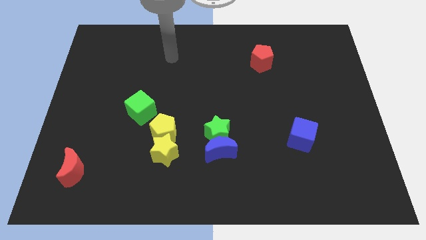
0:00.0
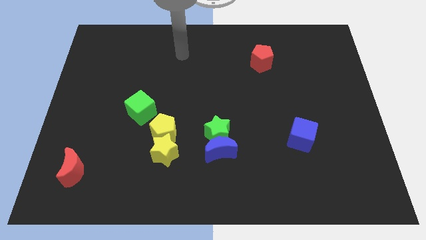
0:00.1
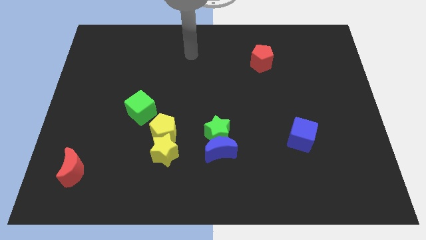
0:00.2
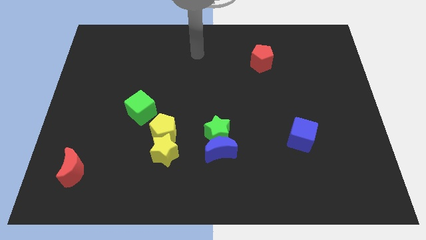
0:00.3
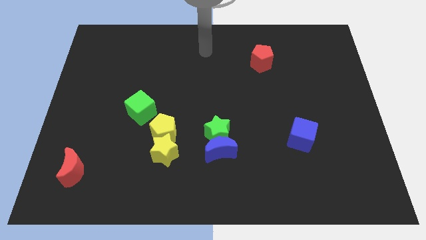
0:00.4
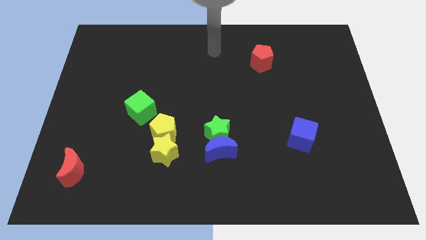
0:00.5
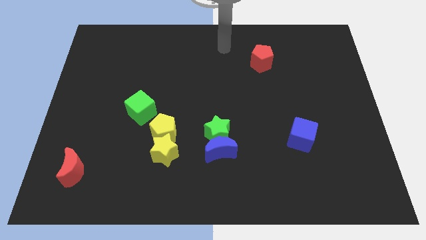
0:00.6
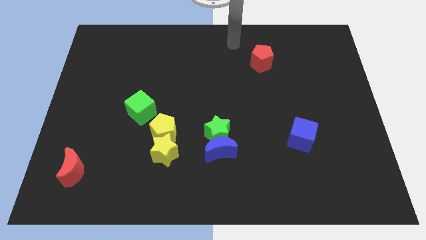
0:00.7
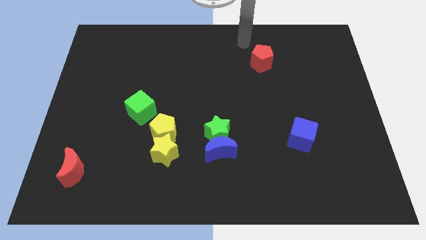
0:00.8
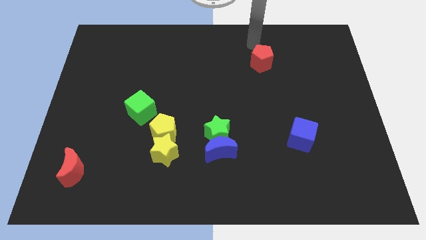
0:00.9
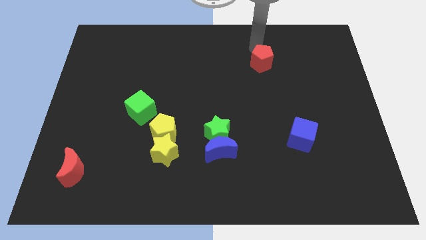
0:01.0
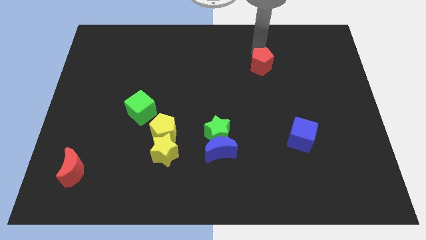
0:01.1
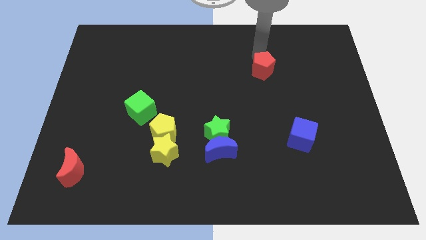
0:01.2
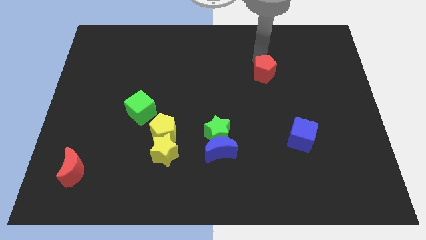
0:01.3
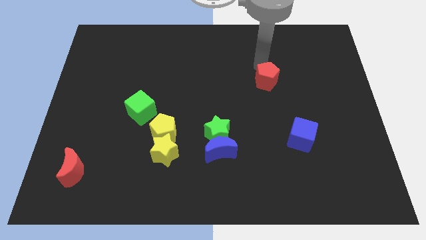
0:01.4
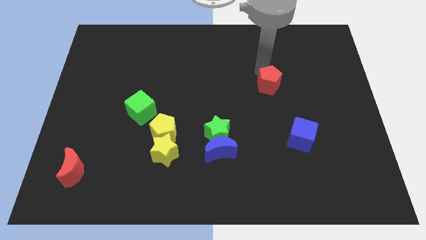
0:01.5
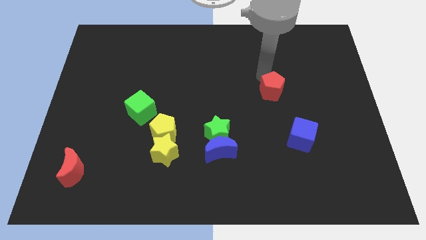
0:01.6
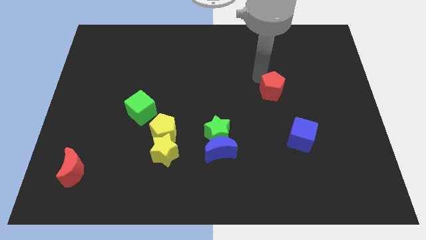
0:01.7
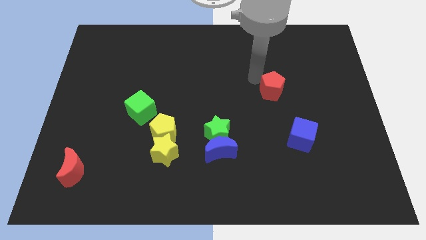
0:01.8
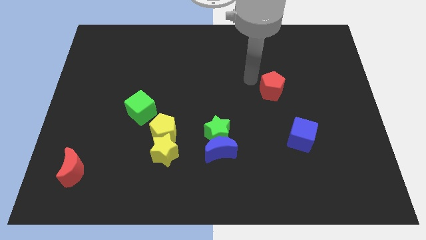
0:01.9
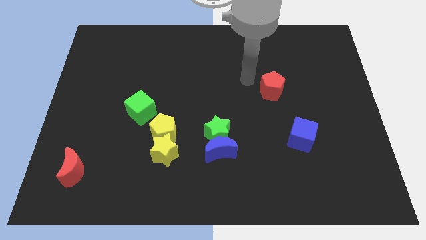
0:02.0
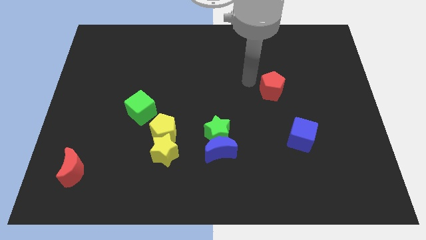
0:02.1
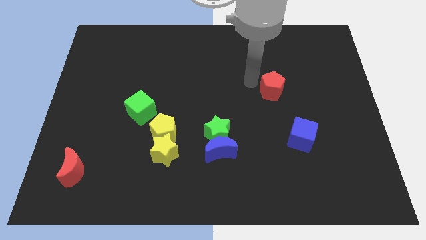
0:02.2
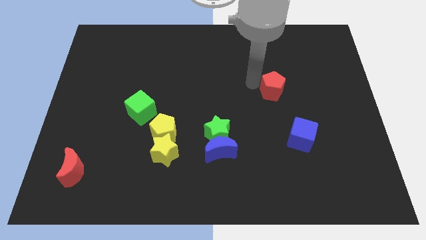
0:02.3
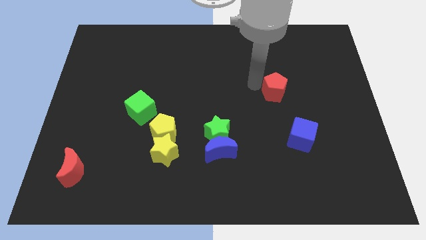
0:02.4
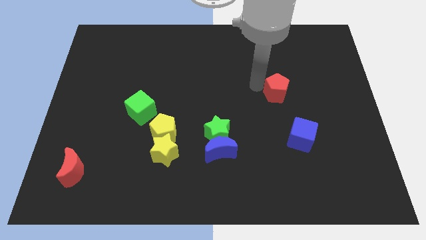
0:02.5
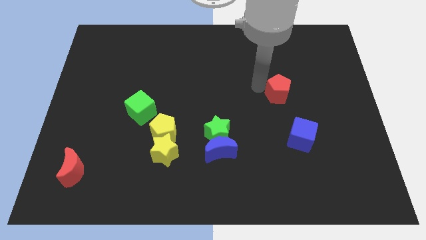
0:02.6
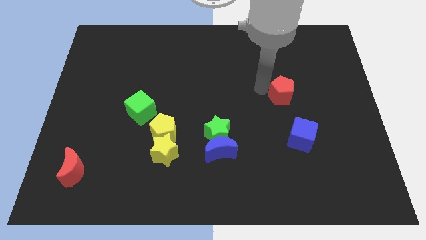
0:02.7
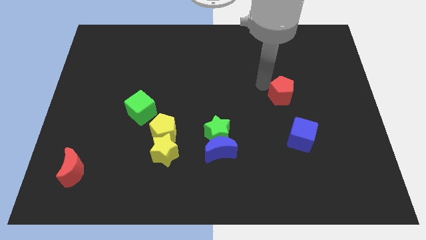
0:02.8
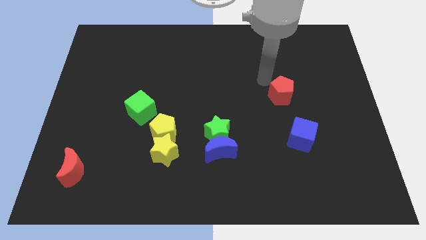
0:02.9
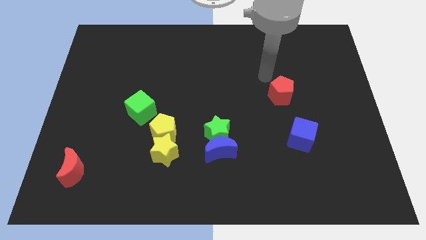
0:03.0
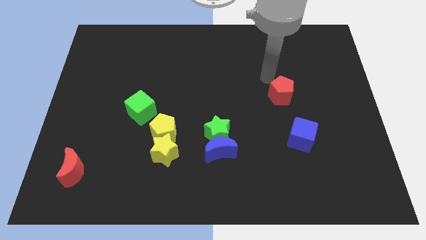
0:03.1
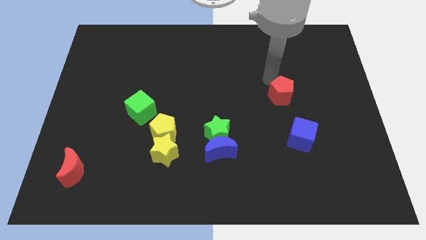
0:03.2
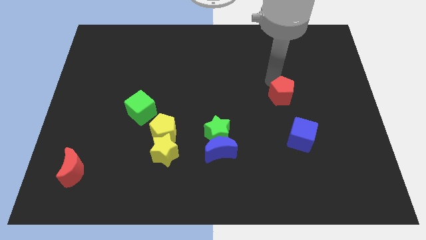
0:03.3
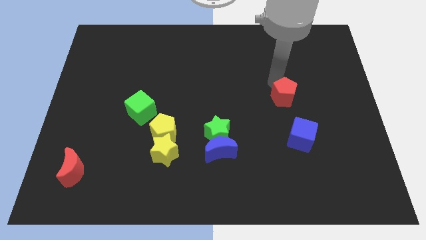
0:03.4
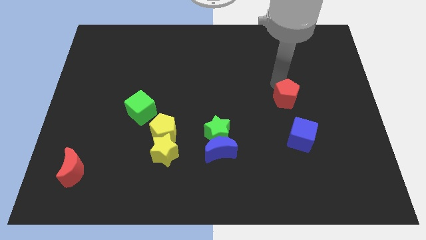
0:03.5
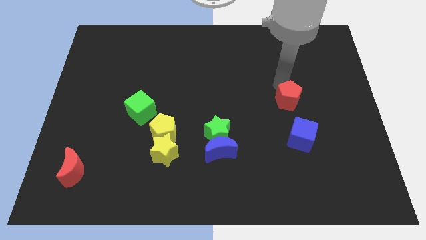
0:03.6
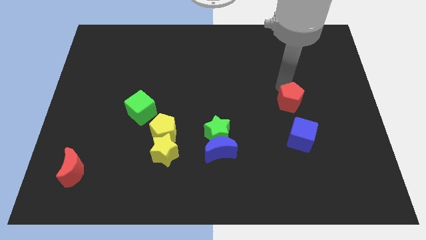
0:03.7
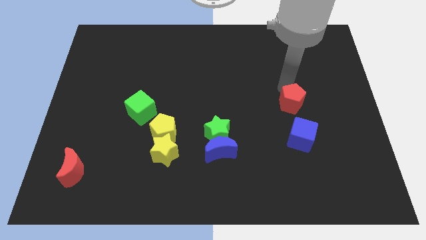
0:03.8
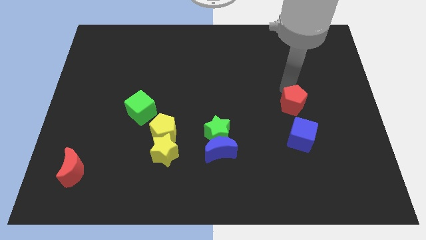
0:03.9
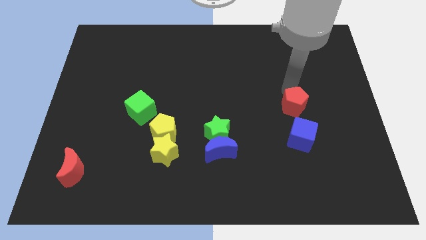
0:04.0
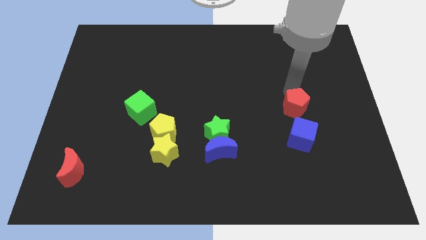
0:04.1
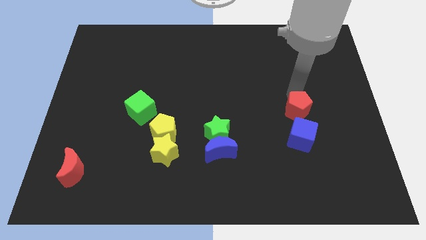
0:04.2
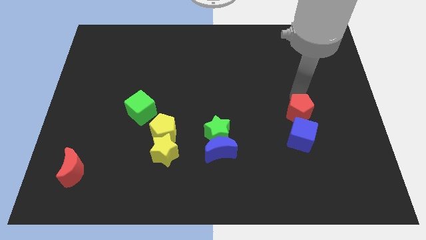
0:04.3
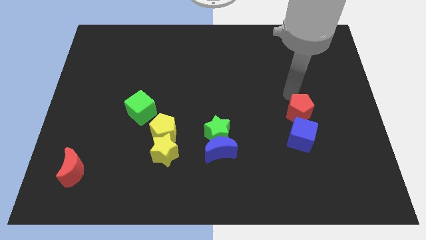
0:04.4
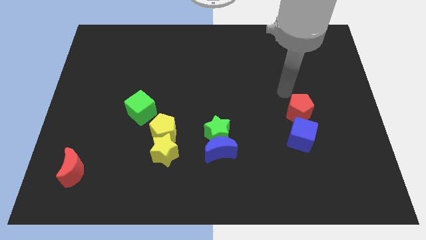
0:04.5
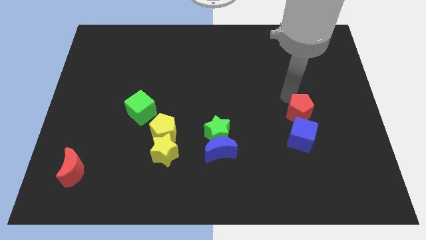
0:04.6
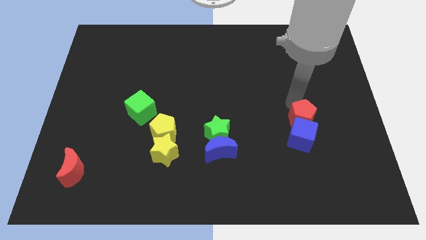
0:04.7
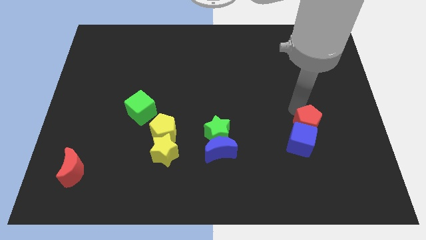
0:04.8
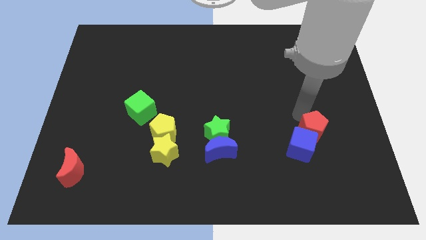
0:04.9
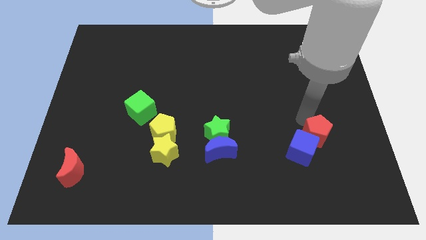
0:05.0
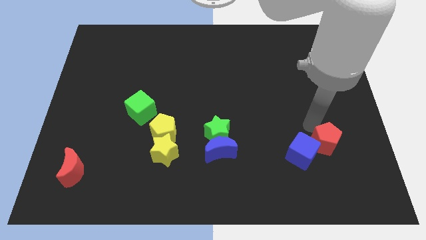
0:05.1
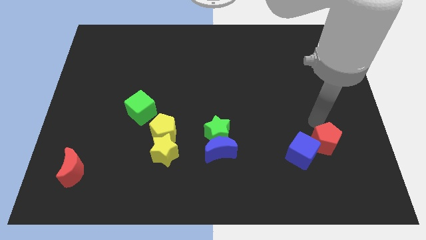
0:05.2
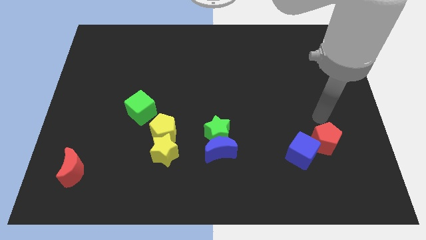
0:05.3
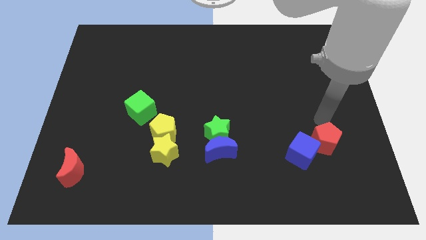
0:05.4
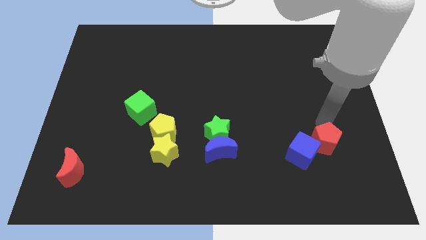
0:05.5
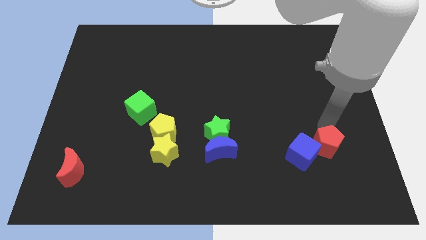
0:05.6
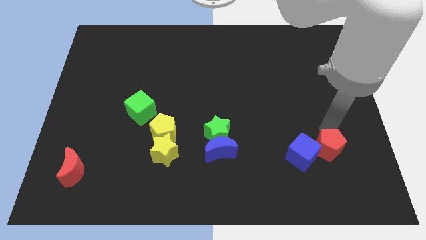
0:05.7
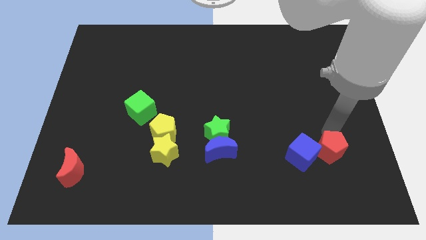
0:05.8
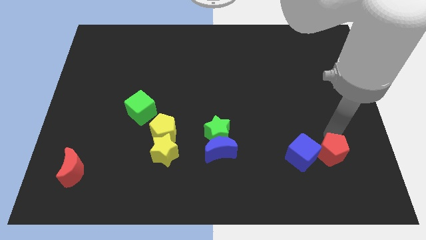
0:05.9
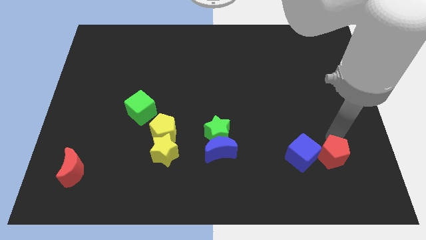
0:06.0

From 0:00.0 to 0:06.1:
move the red pentagon diagonally down and to the right of the blue cube
